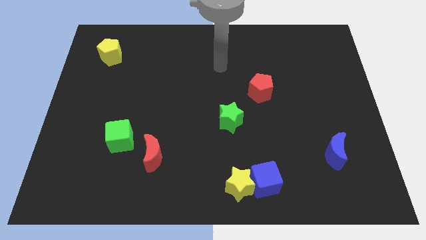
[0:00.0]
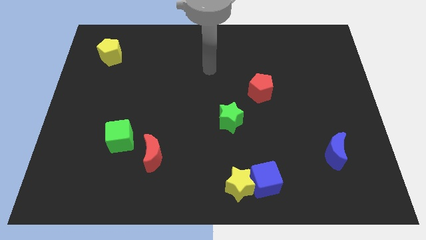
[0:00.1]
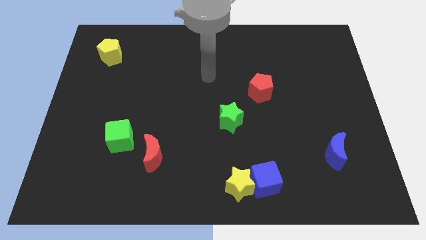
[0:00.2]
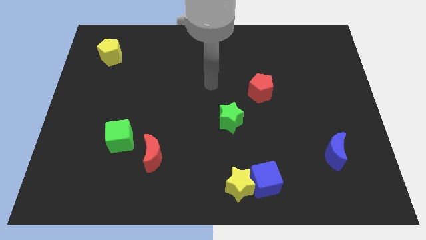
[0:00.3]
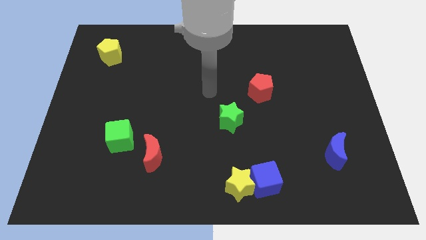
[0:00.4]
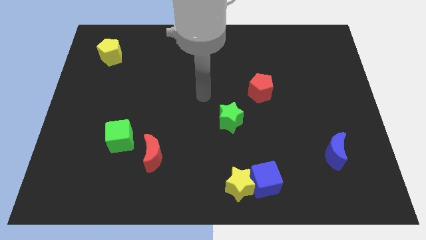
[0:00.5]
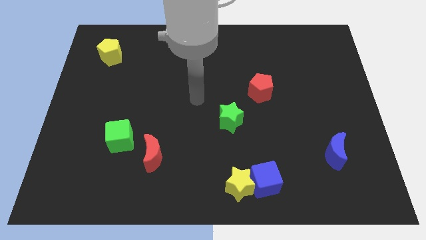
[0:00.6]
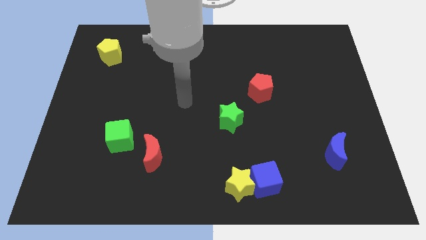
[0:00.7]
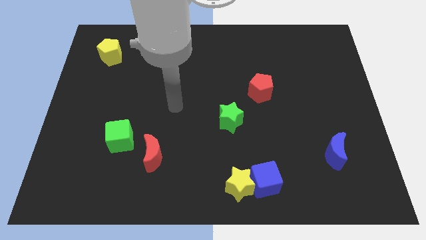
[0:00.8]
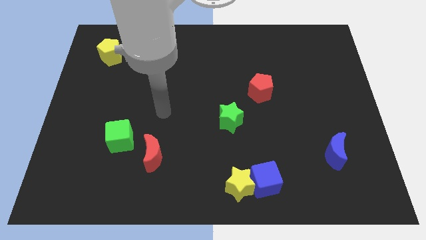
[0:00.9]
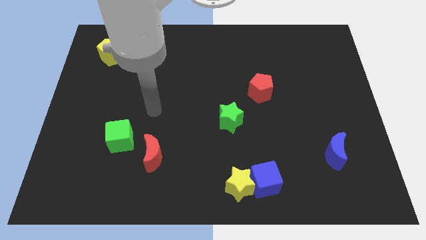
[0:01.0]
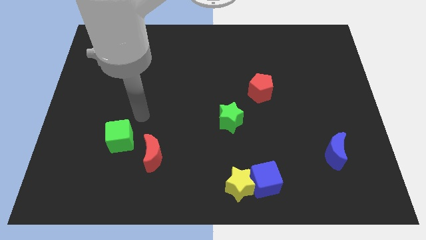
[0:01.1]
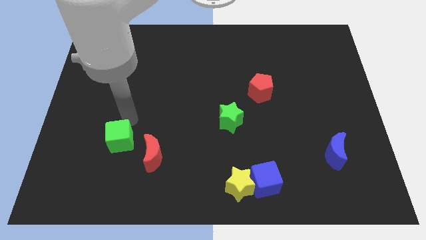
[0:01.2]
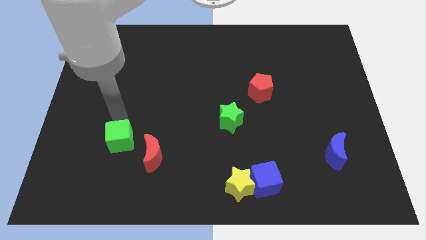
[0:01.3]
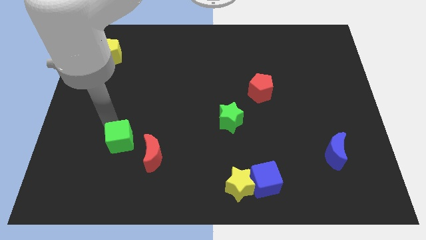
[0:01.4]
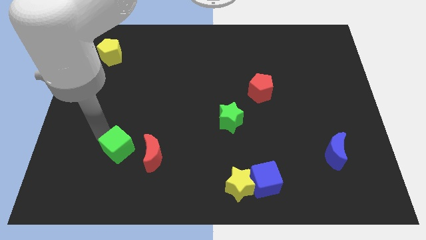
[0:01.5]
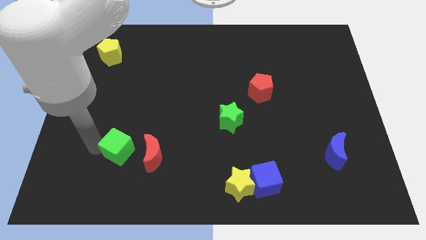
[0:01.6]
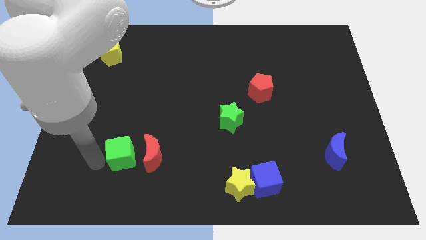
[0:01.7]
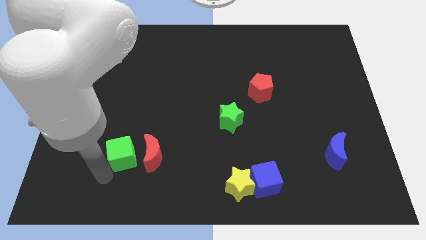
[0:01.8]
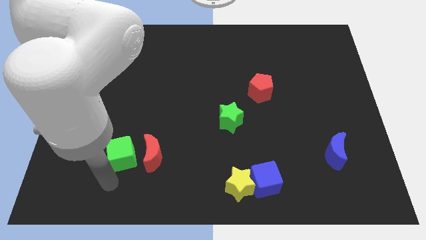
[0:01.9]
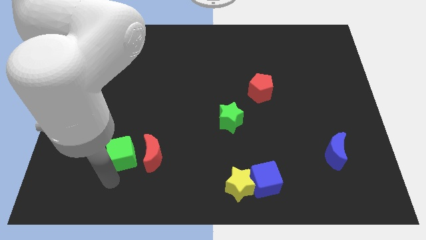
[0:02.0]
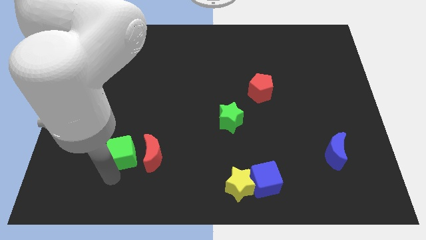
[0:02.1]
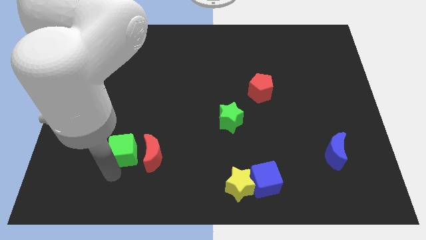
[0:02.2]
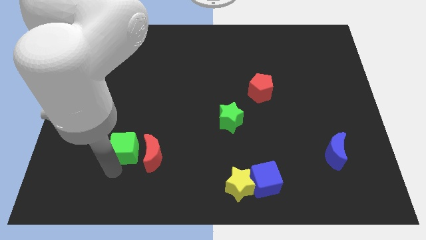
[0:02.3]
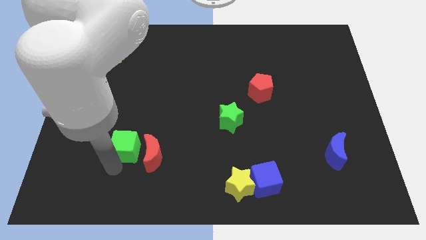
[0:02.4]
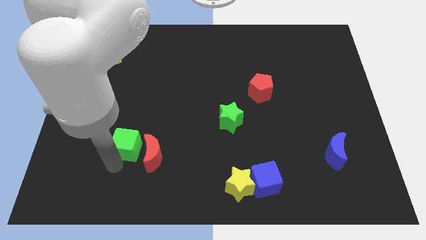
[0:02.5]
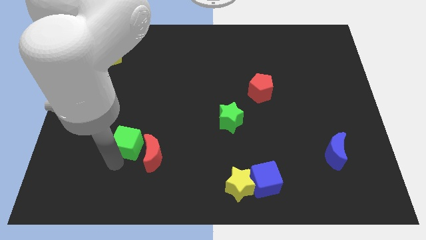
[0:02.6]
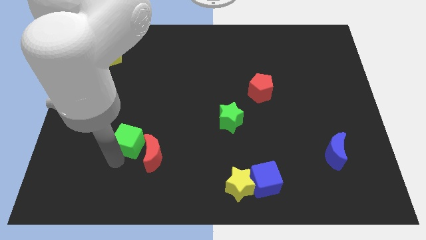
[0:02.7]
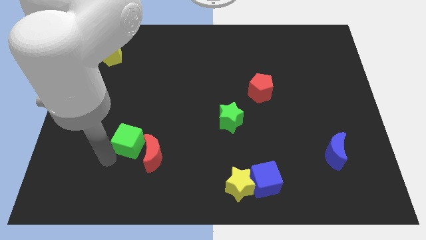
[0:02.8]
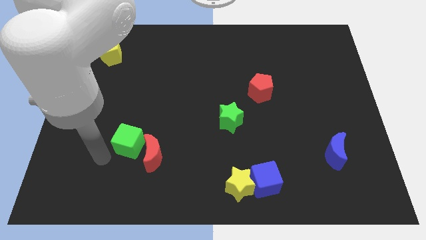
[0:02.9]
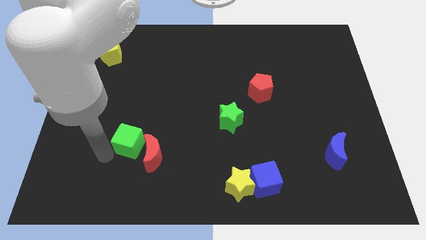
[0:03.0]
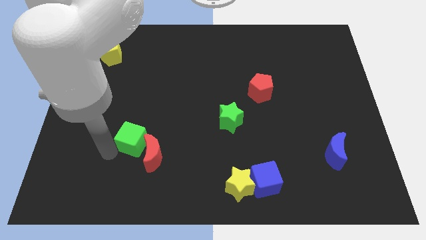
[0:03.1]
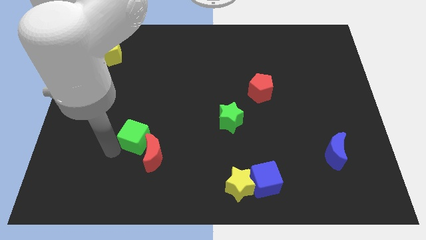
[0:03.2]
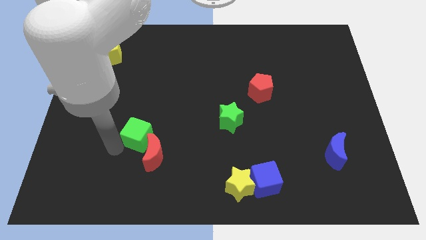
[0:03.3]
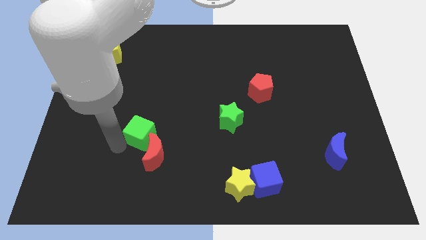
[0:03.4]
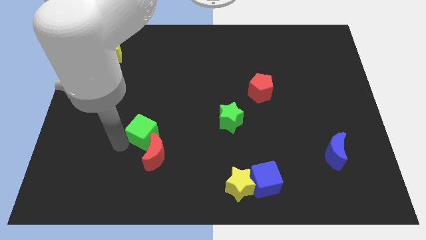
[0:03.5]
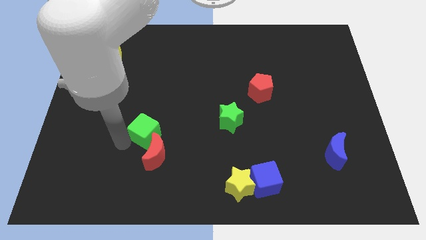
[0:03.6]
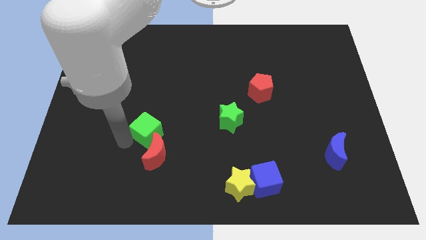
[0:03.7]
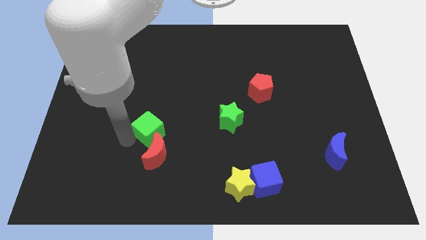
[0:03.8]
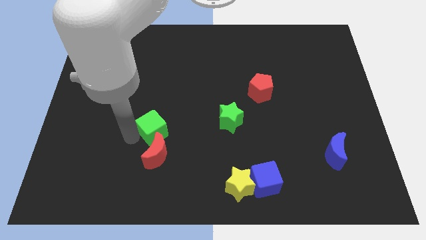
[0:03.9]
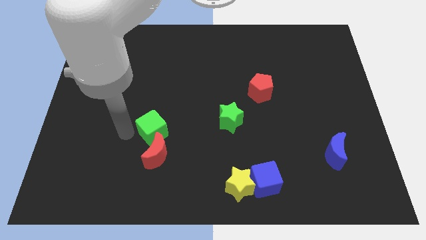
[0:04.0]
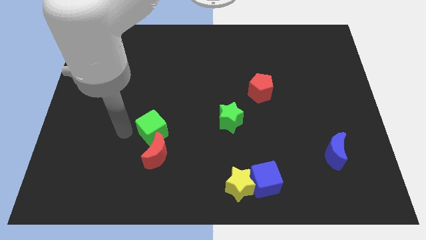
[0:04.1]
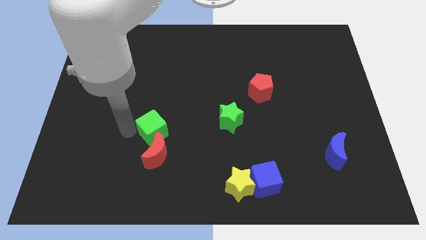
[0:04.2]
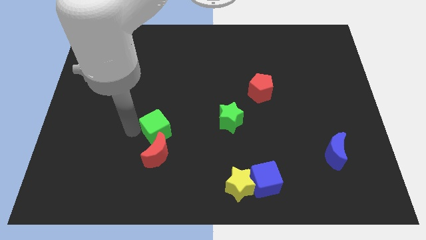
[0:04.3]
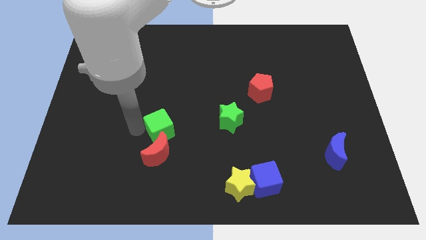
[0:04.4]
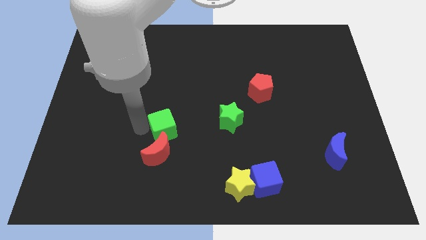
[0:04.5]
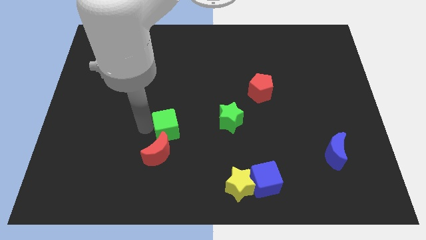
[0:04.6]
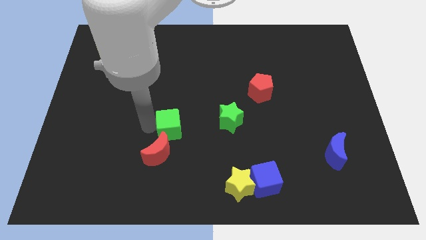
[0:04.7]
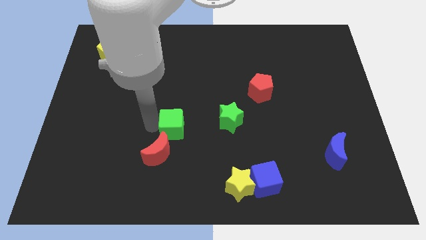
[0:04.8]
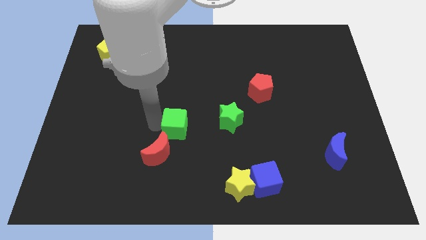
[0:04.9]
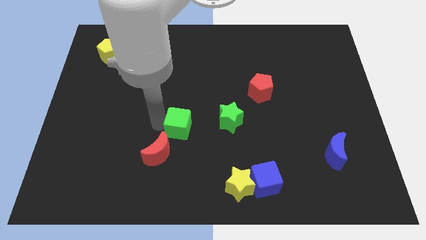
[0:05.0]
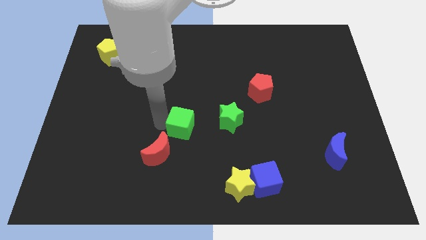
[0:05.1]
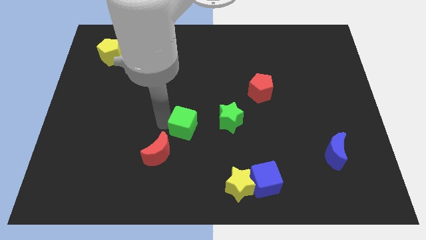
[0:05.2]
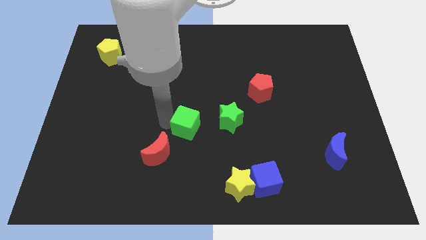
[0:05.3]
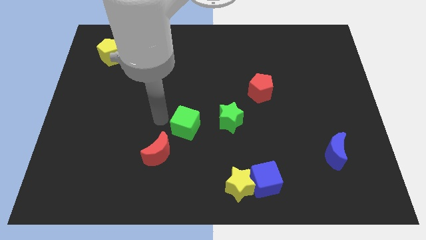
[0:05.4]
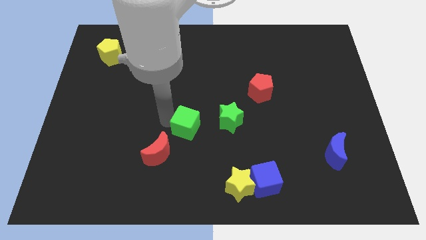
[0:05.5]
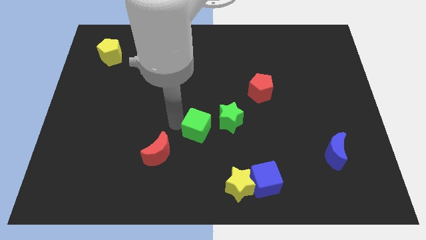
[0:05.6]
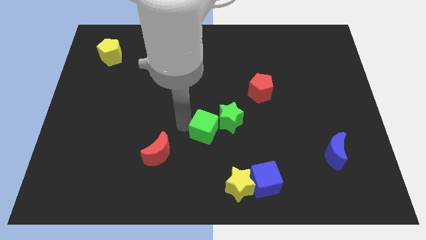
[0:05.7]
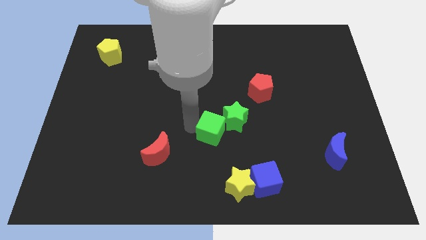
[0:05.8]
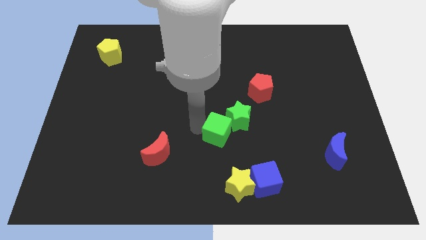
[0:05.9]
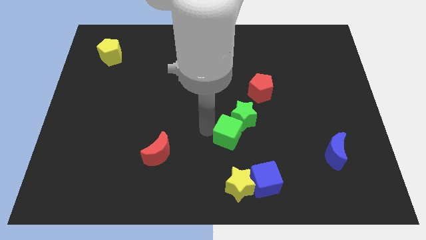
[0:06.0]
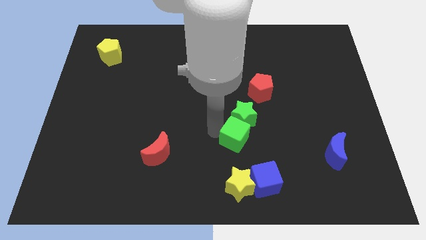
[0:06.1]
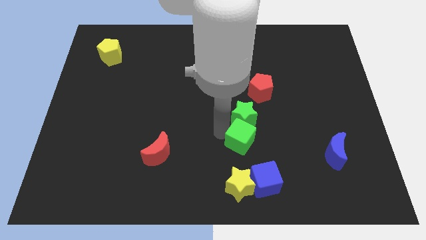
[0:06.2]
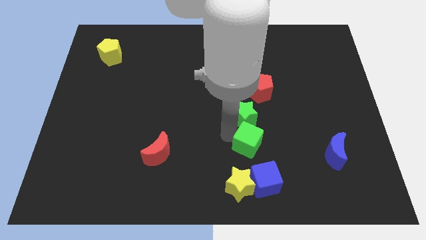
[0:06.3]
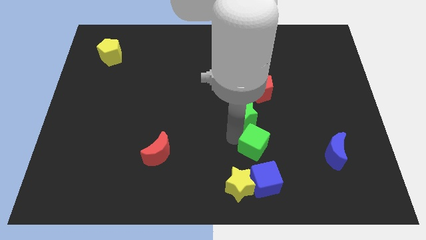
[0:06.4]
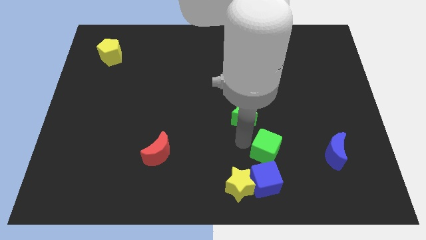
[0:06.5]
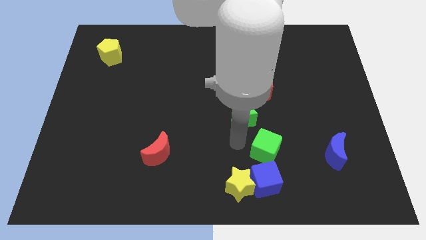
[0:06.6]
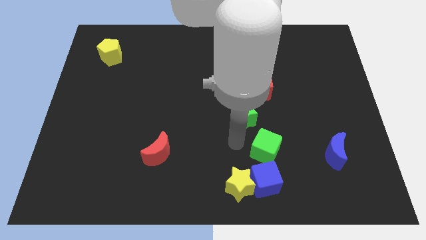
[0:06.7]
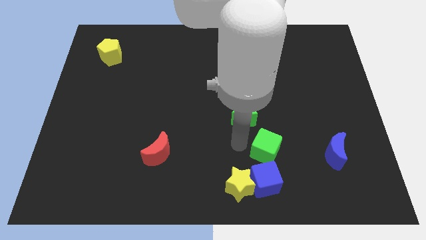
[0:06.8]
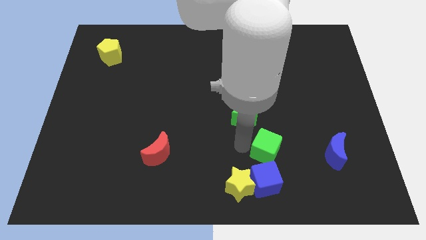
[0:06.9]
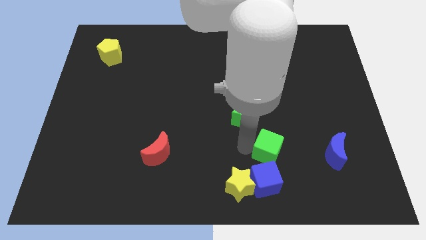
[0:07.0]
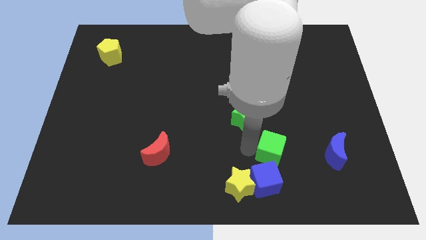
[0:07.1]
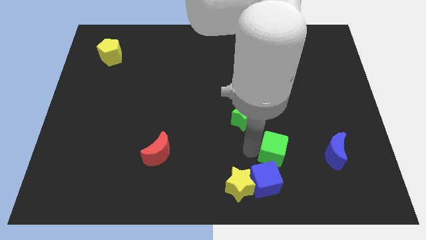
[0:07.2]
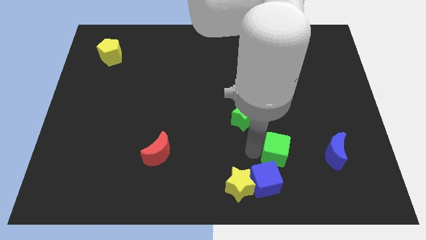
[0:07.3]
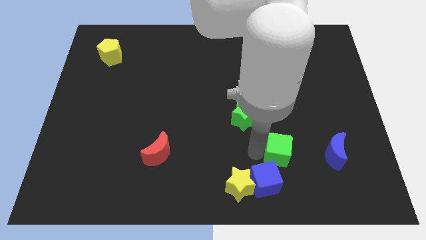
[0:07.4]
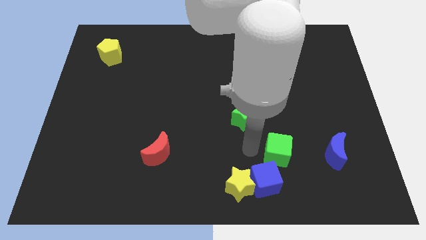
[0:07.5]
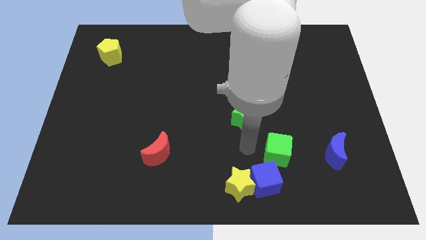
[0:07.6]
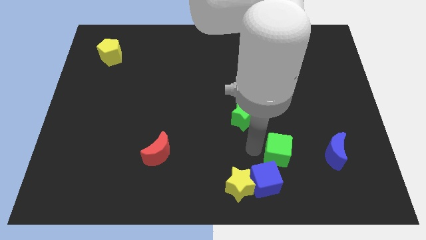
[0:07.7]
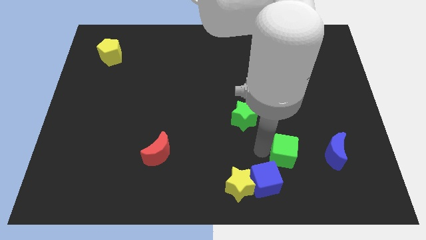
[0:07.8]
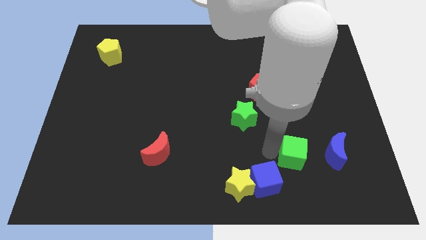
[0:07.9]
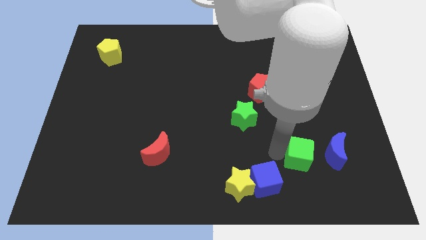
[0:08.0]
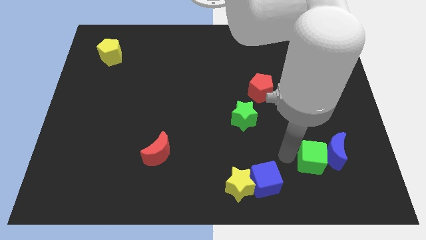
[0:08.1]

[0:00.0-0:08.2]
put the green cube close to the blue moon
